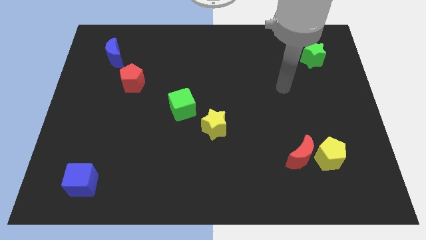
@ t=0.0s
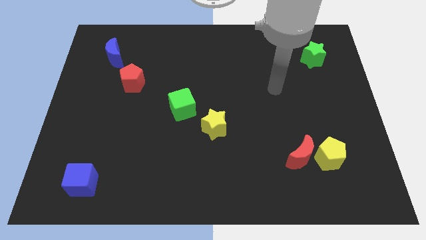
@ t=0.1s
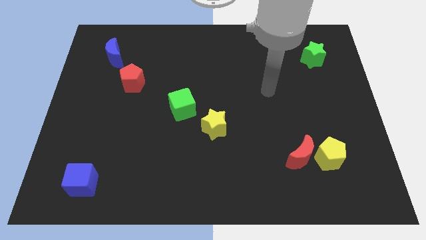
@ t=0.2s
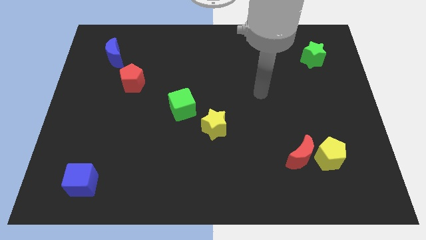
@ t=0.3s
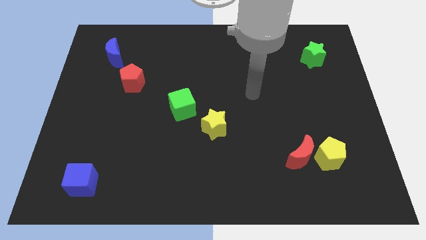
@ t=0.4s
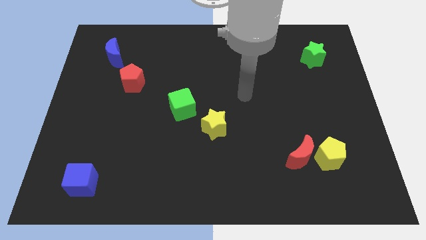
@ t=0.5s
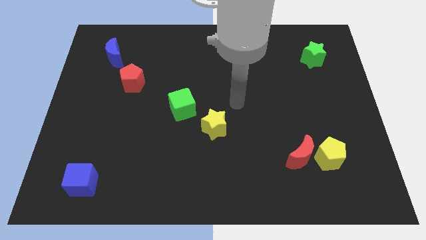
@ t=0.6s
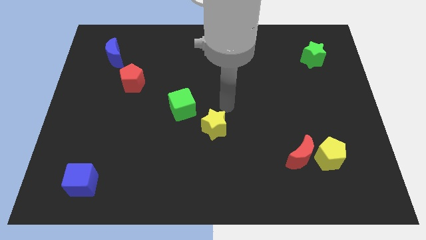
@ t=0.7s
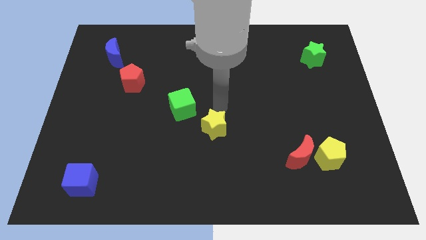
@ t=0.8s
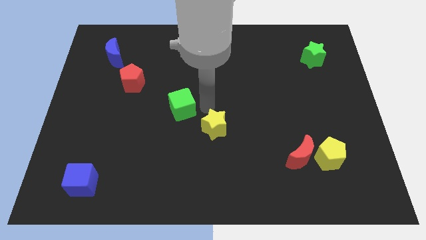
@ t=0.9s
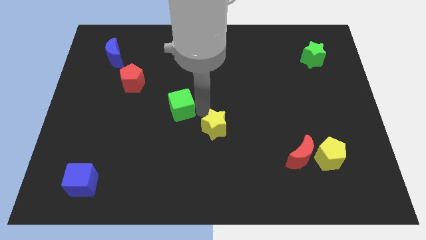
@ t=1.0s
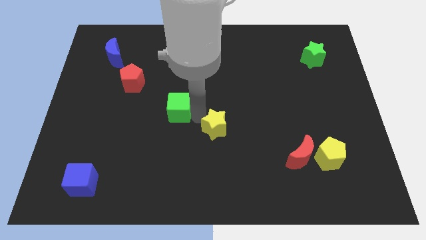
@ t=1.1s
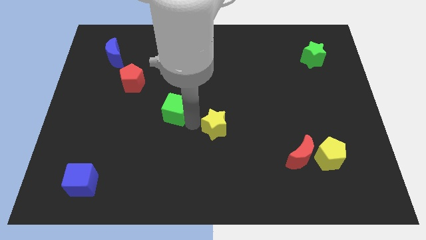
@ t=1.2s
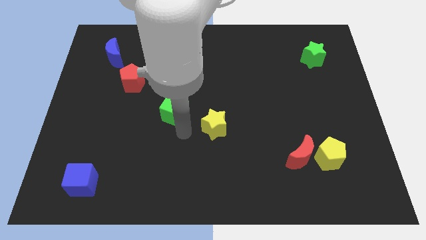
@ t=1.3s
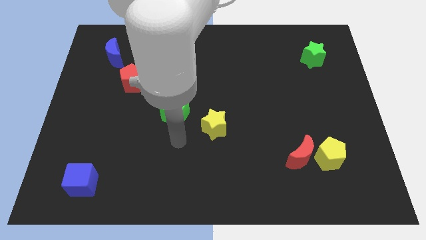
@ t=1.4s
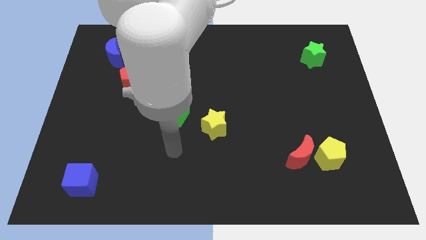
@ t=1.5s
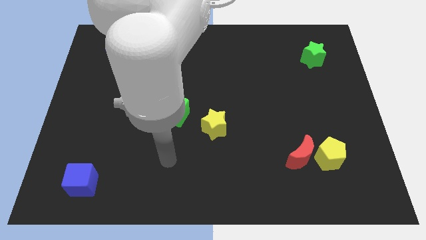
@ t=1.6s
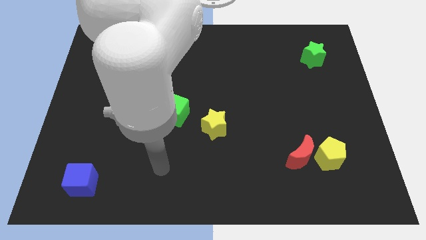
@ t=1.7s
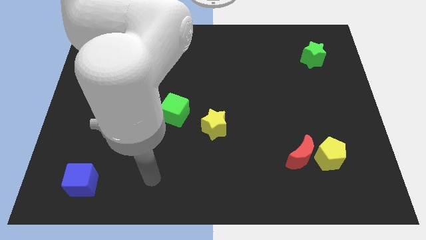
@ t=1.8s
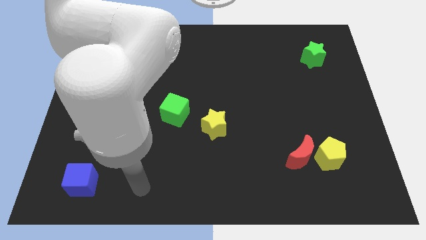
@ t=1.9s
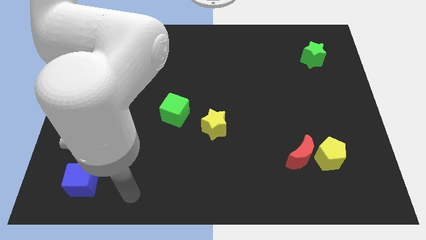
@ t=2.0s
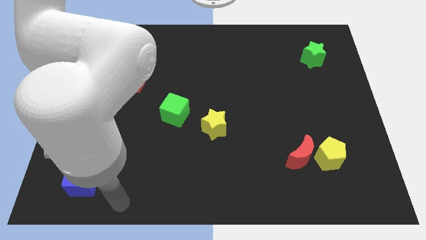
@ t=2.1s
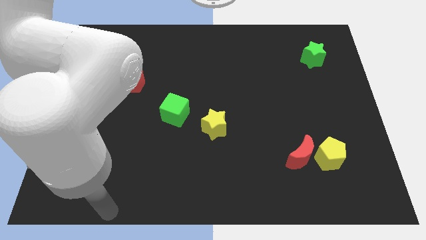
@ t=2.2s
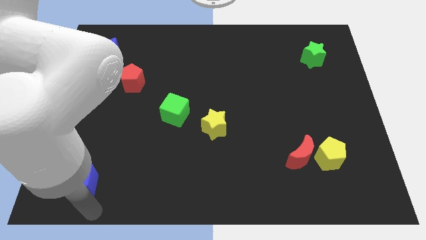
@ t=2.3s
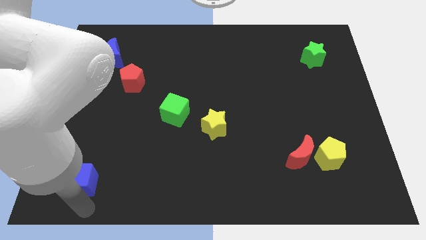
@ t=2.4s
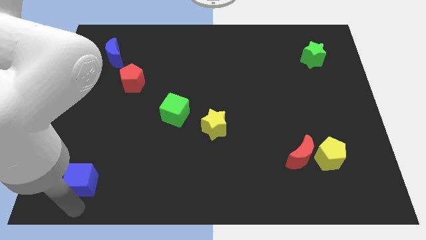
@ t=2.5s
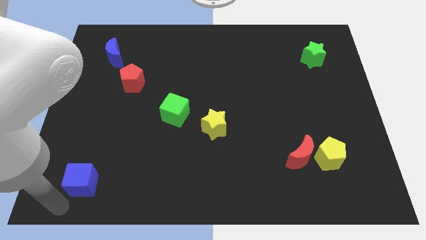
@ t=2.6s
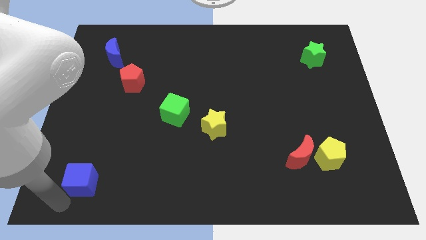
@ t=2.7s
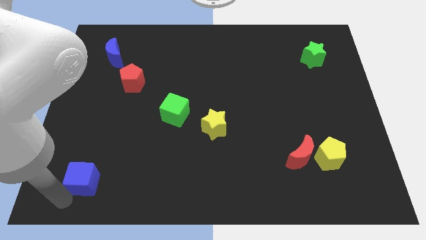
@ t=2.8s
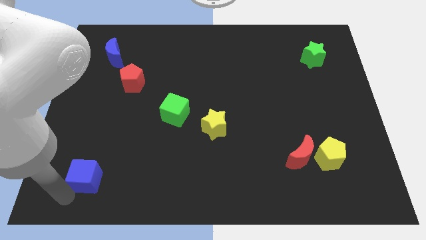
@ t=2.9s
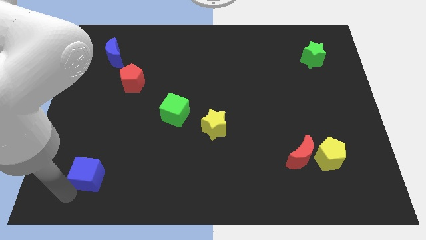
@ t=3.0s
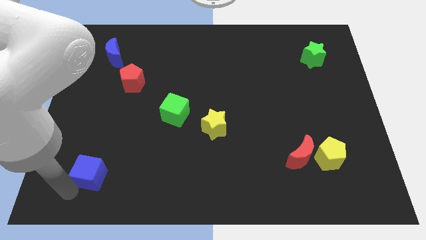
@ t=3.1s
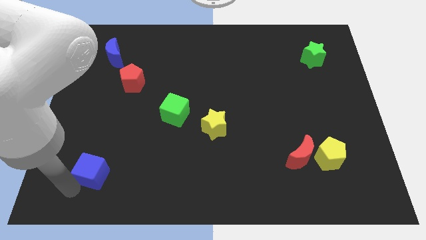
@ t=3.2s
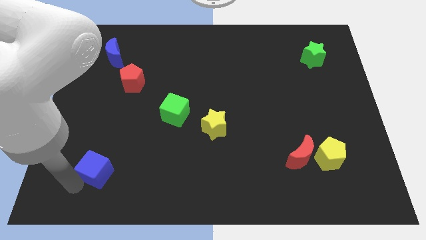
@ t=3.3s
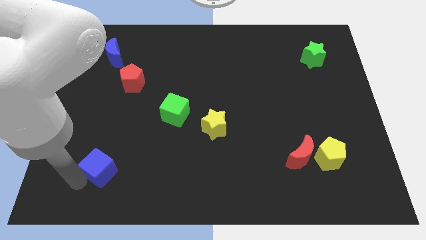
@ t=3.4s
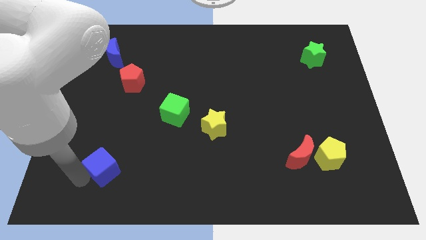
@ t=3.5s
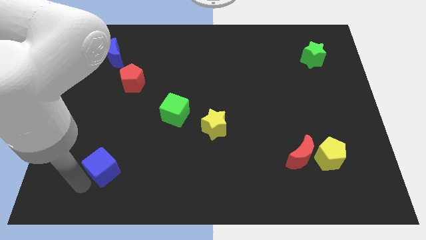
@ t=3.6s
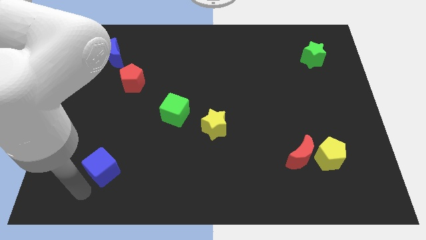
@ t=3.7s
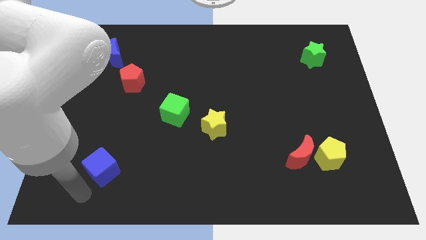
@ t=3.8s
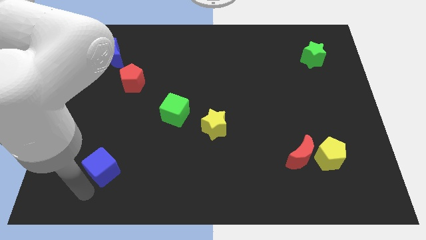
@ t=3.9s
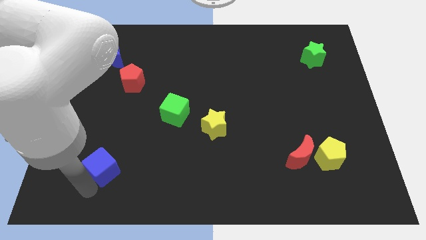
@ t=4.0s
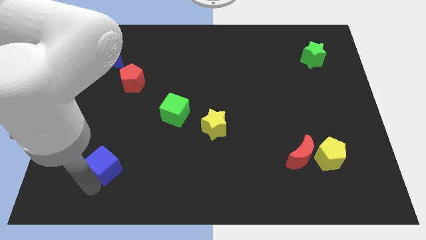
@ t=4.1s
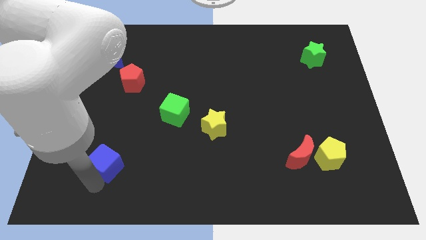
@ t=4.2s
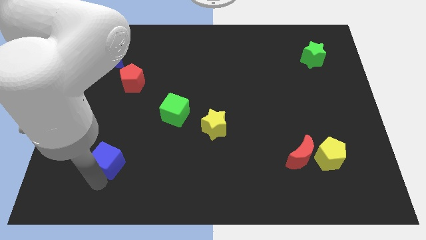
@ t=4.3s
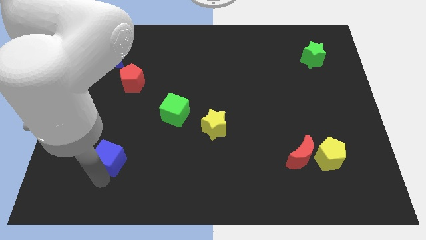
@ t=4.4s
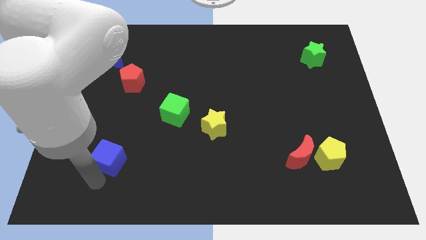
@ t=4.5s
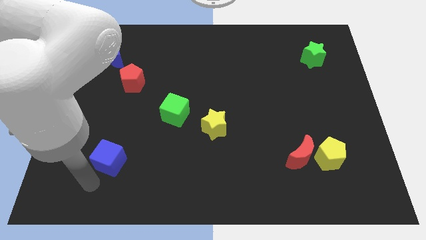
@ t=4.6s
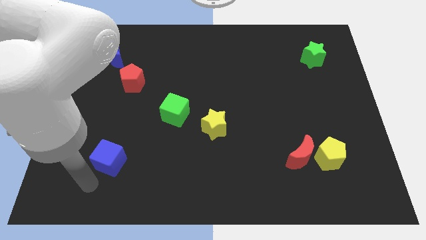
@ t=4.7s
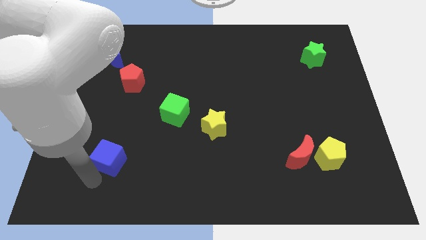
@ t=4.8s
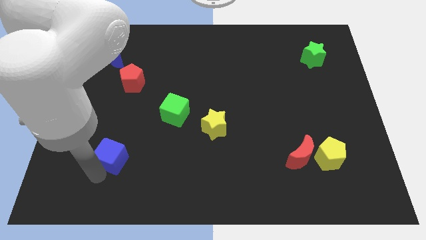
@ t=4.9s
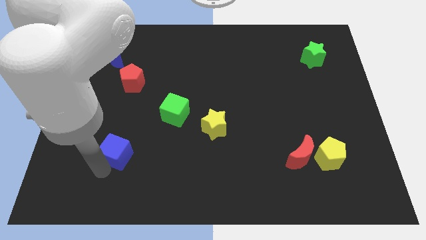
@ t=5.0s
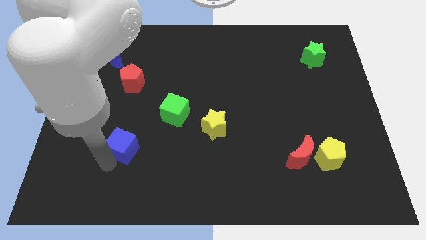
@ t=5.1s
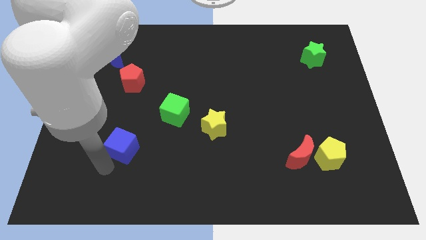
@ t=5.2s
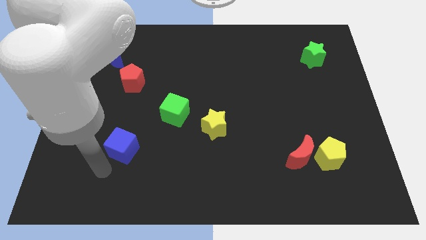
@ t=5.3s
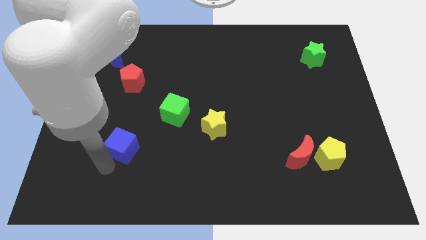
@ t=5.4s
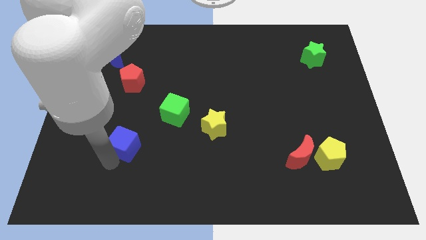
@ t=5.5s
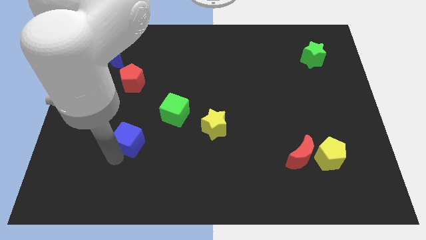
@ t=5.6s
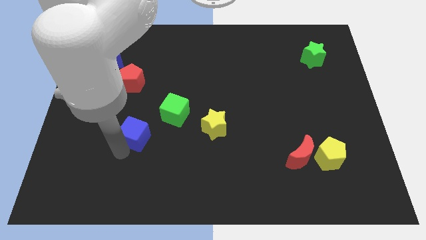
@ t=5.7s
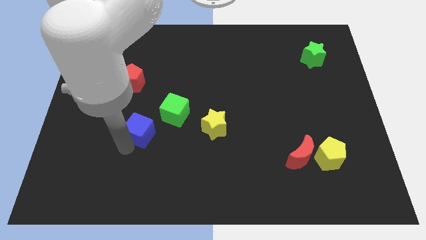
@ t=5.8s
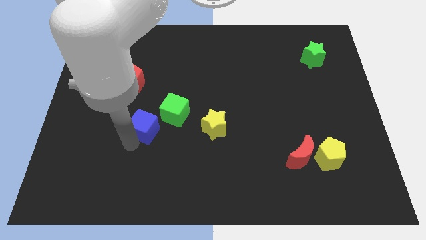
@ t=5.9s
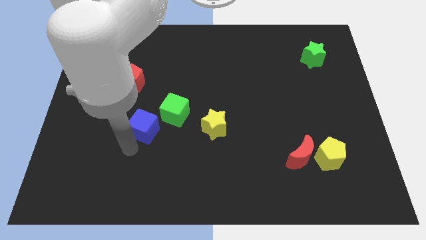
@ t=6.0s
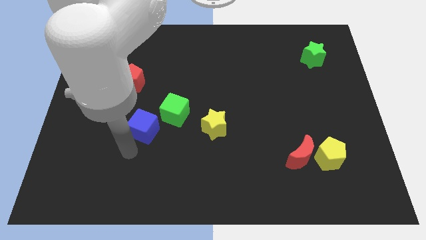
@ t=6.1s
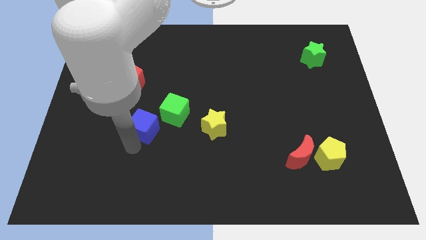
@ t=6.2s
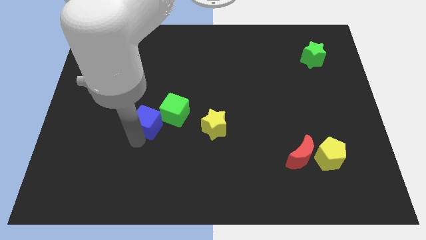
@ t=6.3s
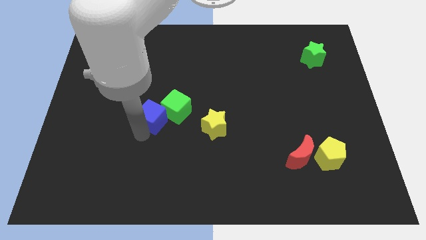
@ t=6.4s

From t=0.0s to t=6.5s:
slide the blue cube up and right diagonally

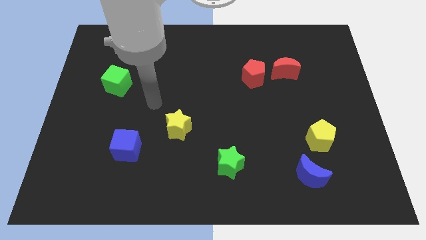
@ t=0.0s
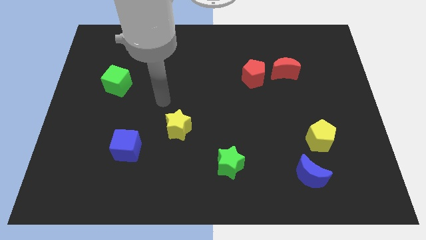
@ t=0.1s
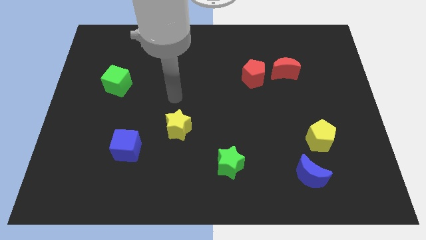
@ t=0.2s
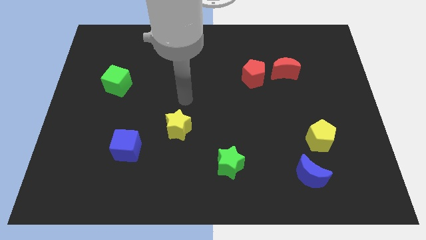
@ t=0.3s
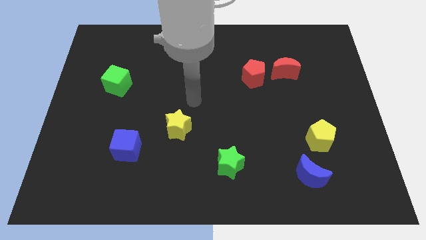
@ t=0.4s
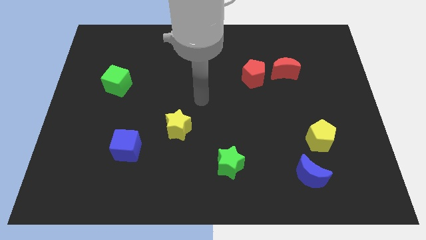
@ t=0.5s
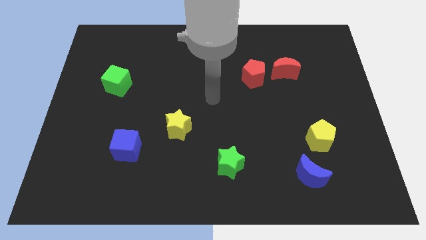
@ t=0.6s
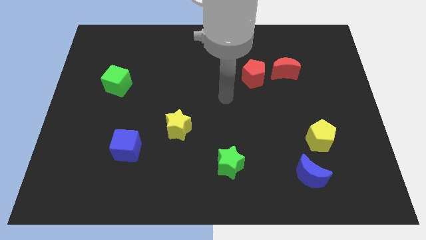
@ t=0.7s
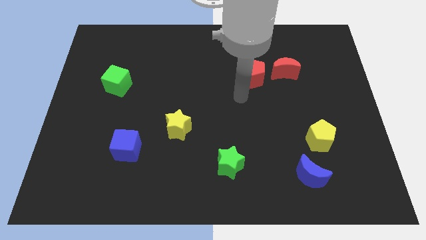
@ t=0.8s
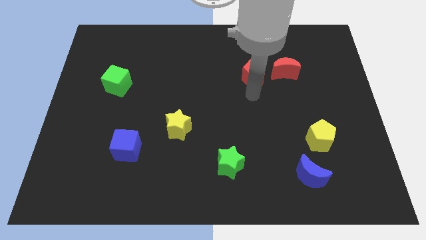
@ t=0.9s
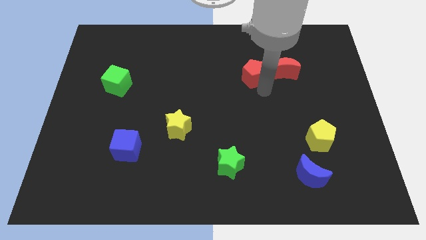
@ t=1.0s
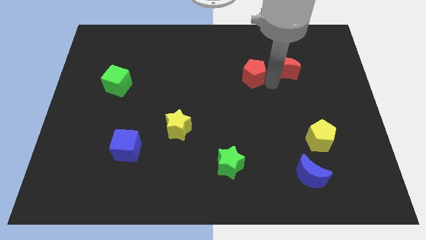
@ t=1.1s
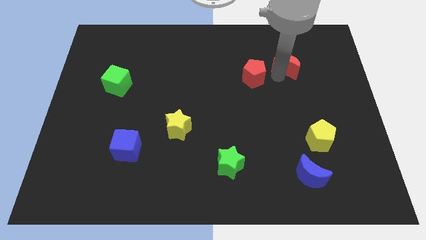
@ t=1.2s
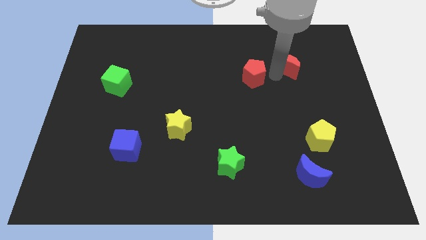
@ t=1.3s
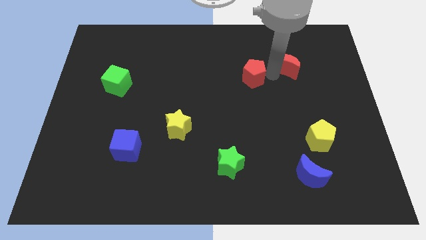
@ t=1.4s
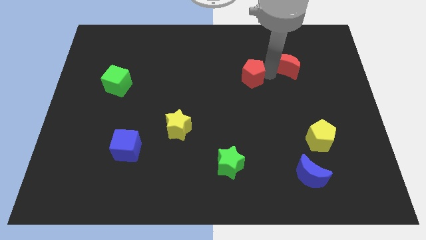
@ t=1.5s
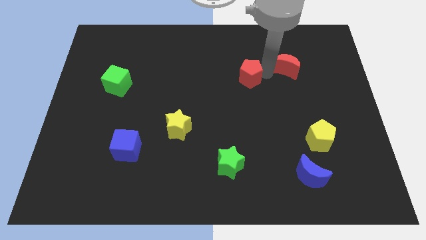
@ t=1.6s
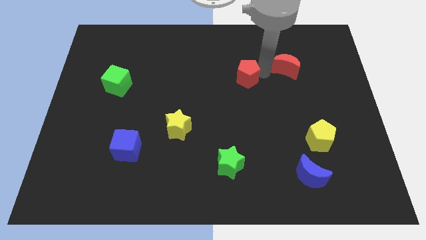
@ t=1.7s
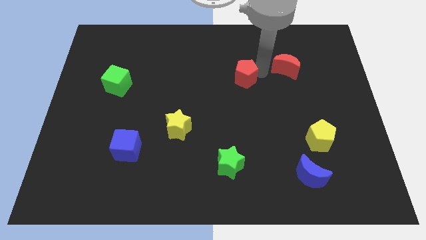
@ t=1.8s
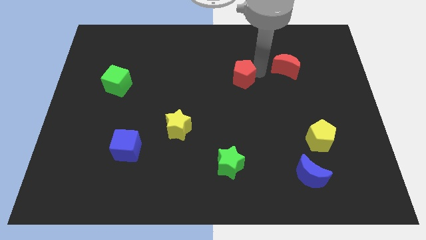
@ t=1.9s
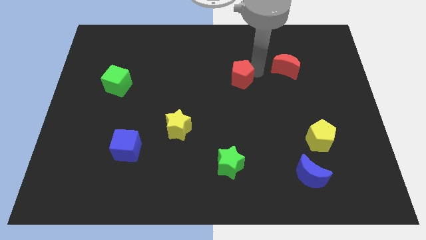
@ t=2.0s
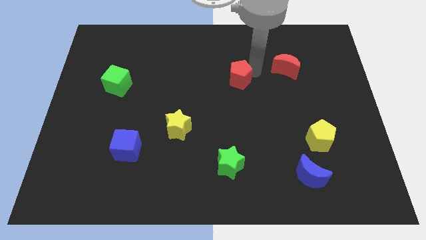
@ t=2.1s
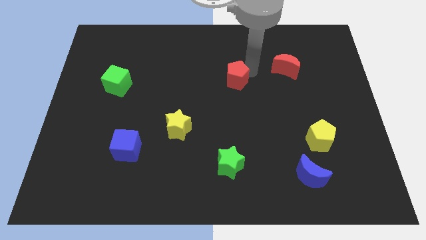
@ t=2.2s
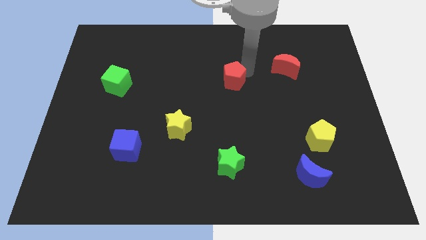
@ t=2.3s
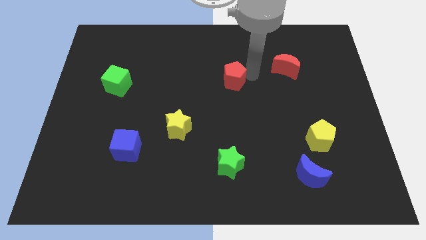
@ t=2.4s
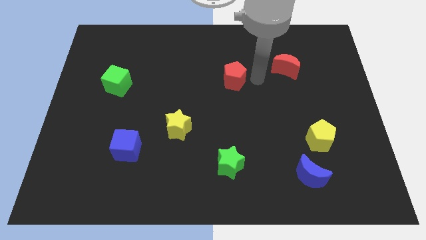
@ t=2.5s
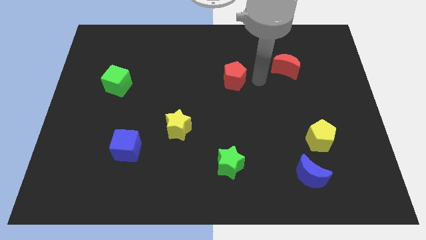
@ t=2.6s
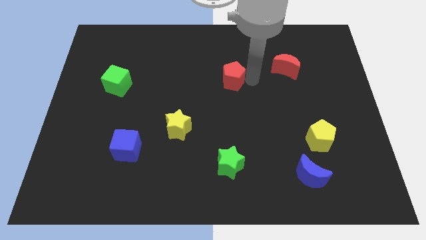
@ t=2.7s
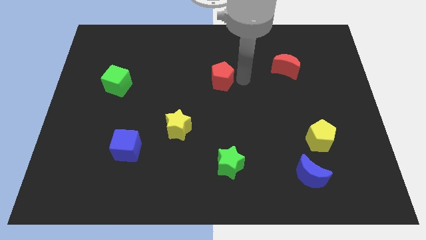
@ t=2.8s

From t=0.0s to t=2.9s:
move the red pentagon left somewhat
